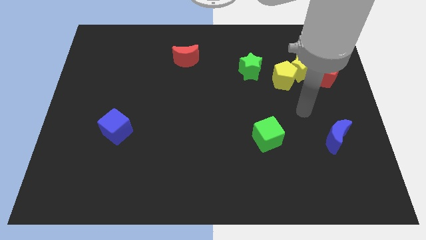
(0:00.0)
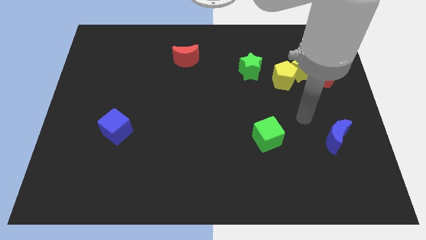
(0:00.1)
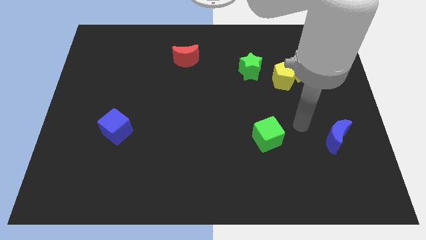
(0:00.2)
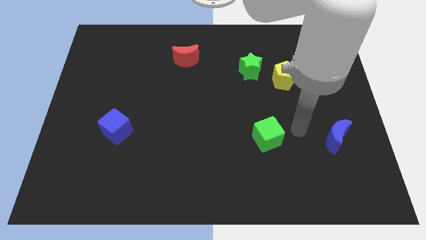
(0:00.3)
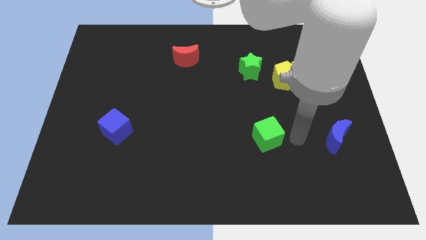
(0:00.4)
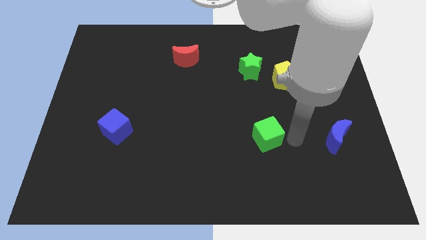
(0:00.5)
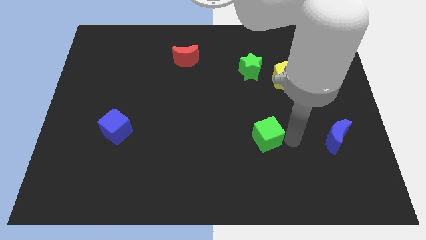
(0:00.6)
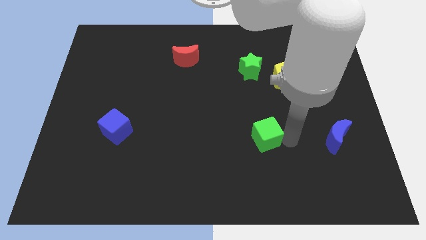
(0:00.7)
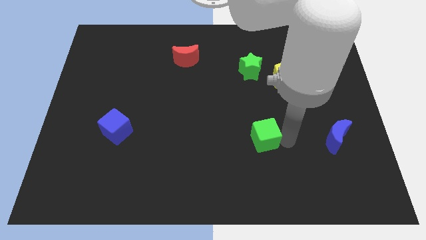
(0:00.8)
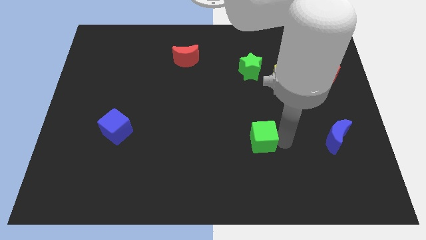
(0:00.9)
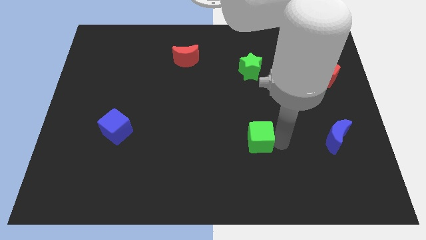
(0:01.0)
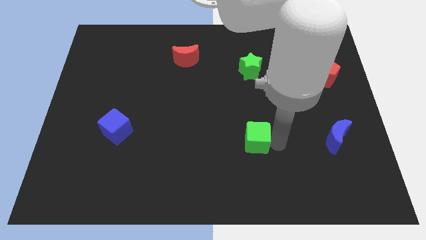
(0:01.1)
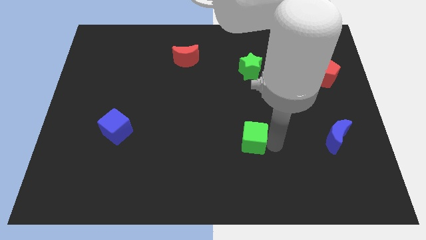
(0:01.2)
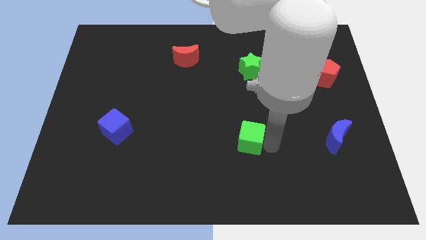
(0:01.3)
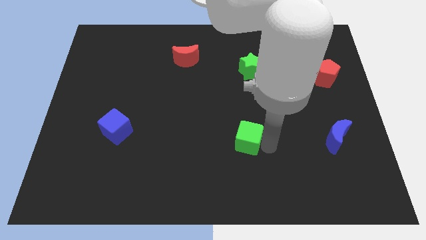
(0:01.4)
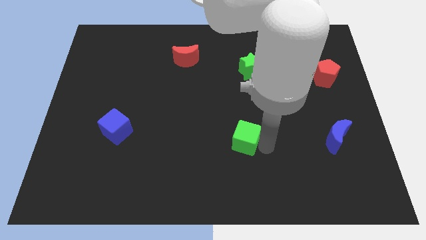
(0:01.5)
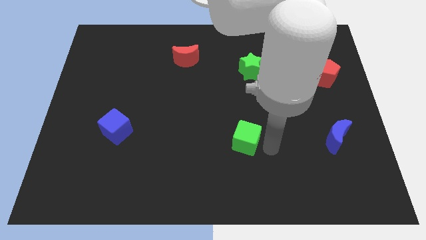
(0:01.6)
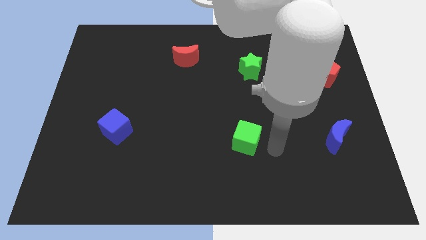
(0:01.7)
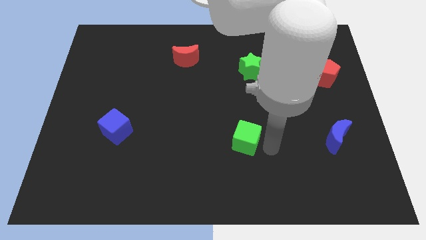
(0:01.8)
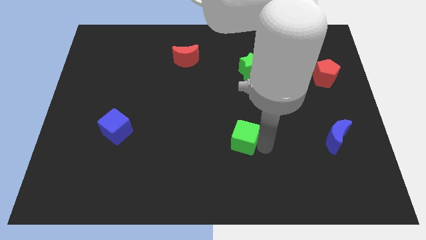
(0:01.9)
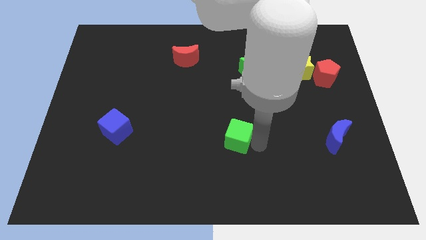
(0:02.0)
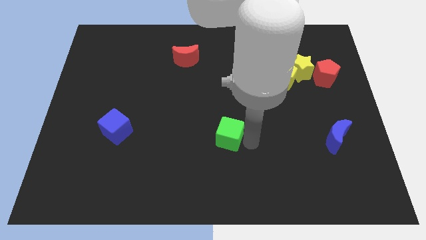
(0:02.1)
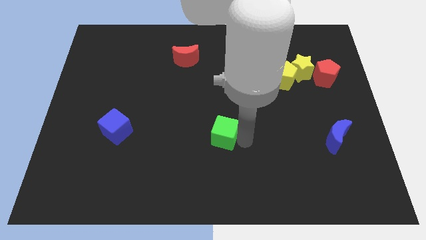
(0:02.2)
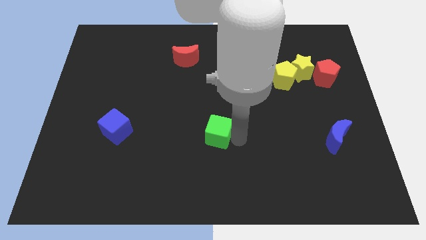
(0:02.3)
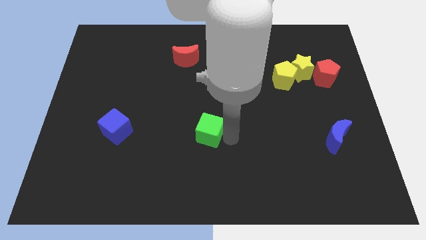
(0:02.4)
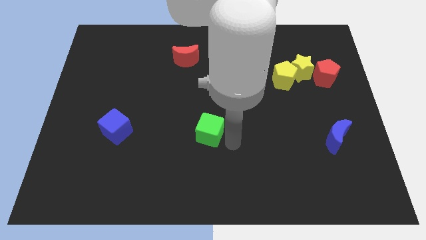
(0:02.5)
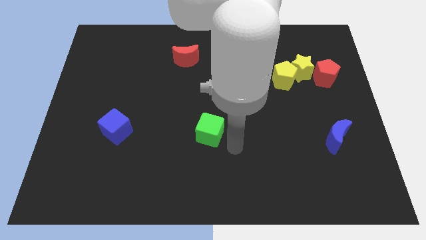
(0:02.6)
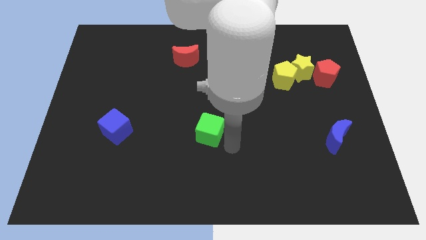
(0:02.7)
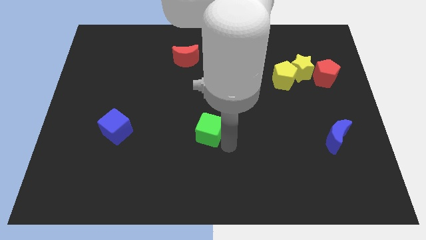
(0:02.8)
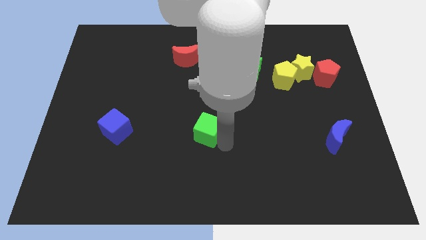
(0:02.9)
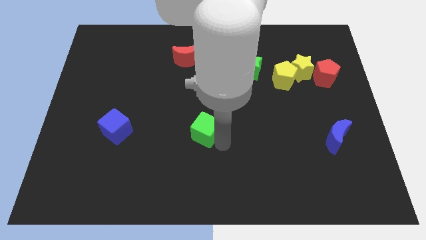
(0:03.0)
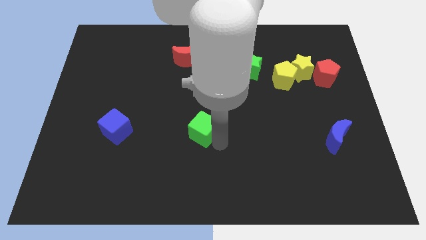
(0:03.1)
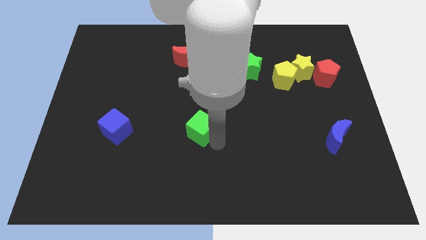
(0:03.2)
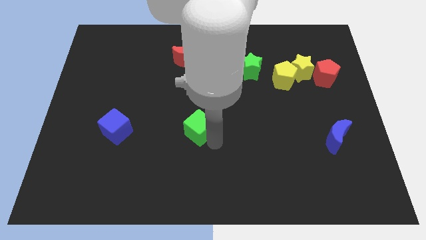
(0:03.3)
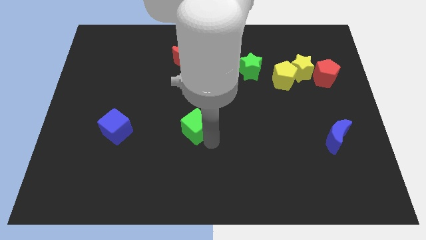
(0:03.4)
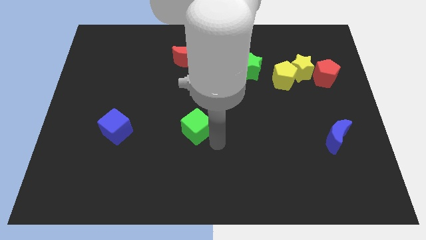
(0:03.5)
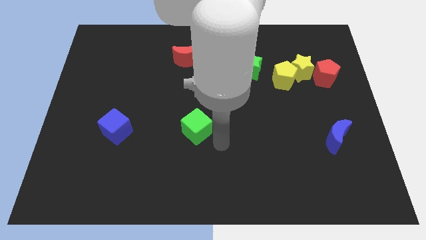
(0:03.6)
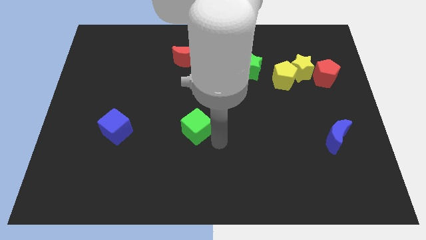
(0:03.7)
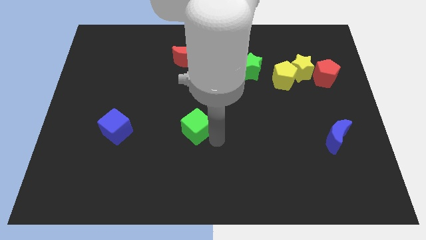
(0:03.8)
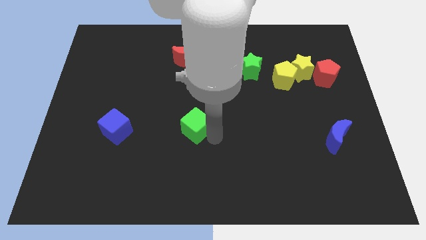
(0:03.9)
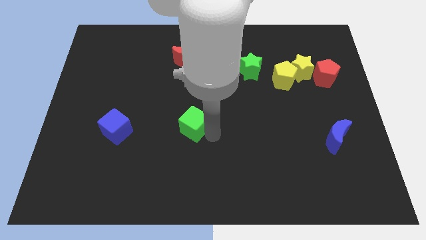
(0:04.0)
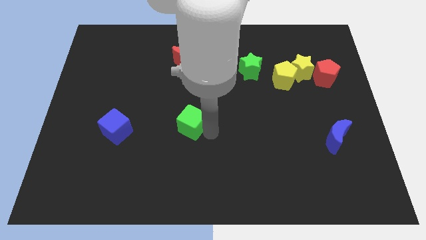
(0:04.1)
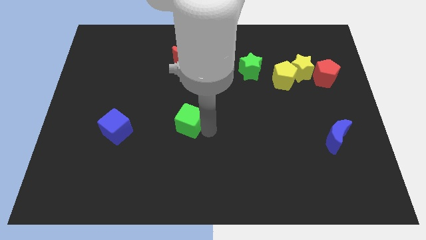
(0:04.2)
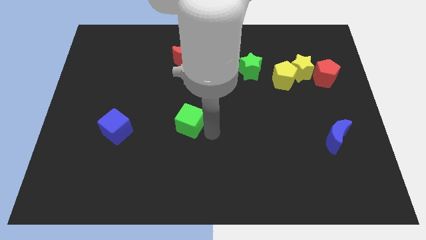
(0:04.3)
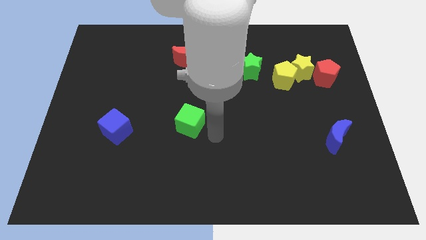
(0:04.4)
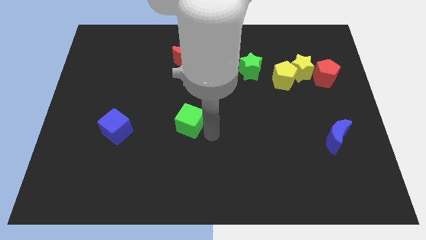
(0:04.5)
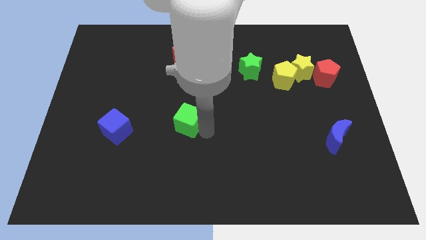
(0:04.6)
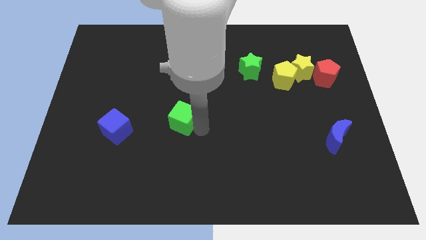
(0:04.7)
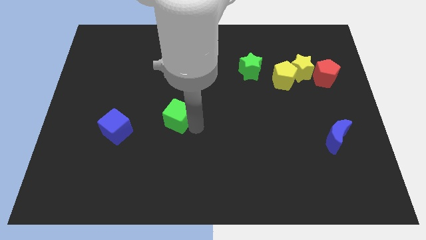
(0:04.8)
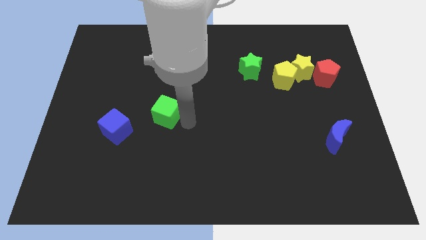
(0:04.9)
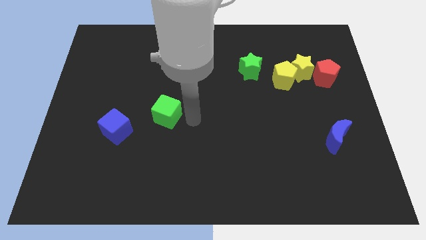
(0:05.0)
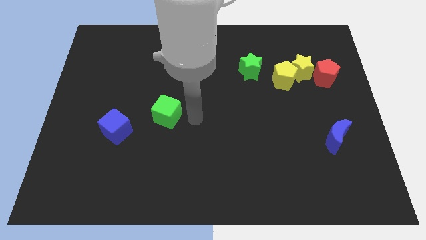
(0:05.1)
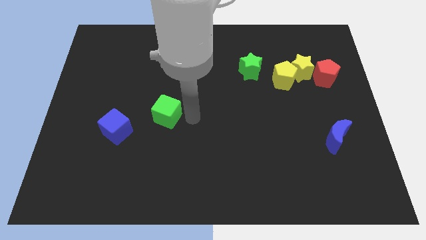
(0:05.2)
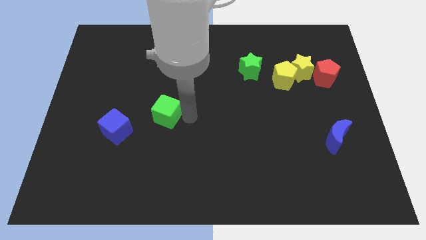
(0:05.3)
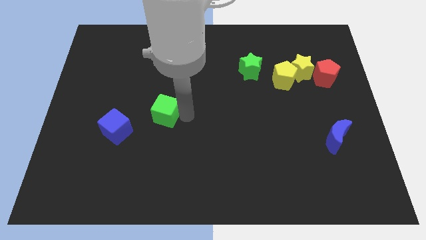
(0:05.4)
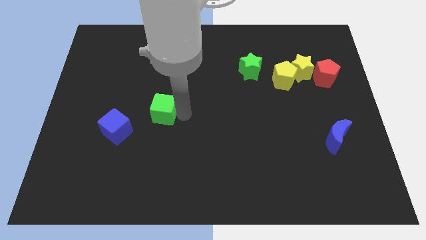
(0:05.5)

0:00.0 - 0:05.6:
push the green cube to the top right of the blue cube

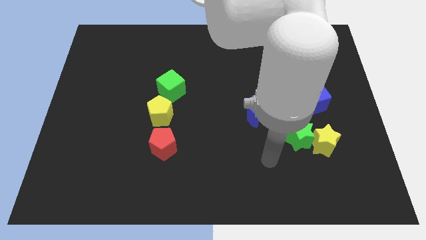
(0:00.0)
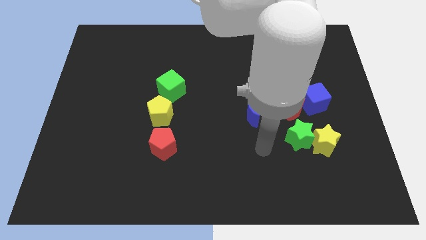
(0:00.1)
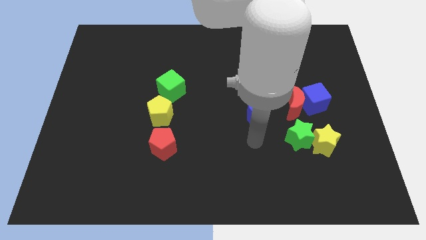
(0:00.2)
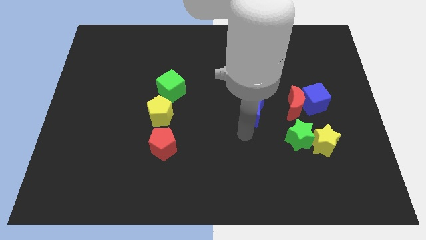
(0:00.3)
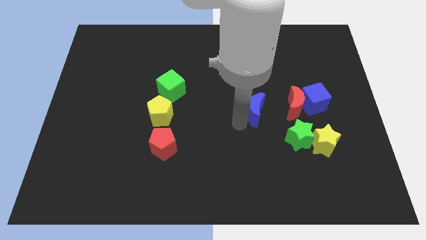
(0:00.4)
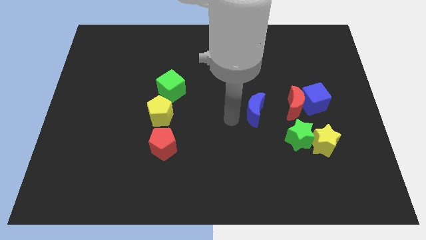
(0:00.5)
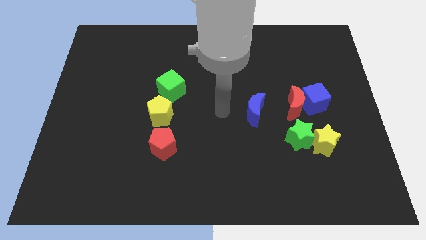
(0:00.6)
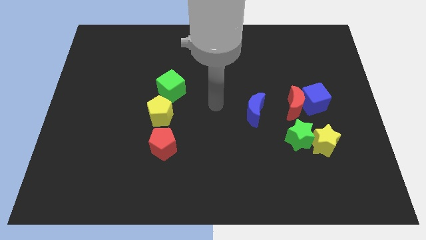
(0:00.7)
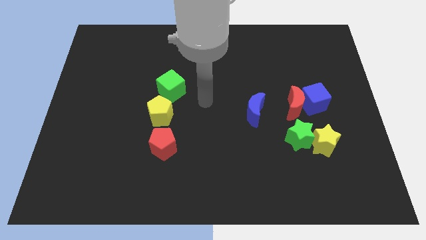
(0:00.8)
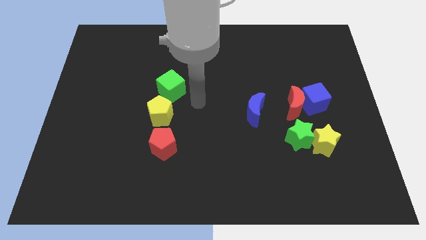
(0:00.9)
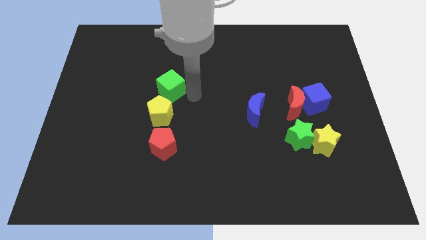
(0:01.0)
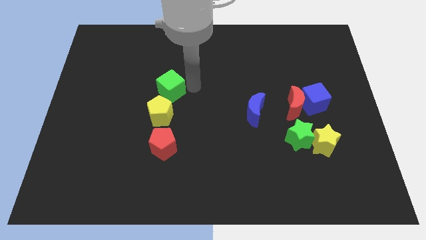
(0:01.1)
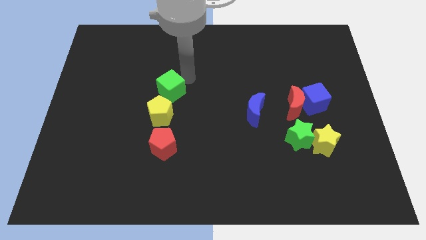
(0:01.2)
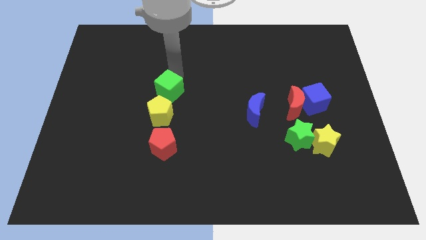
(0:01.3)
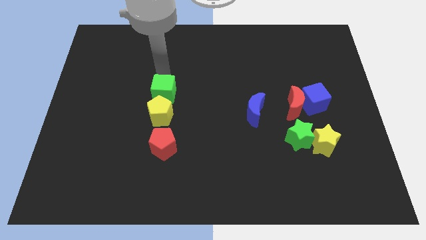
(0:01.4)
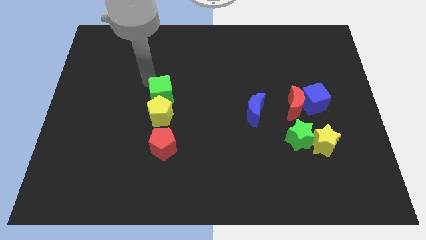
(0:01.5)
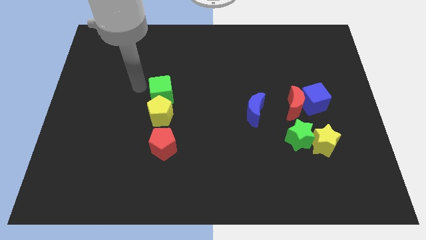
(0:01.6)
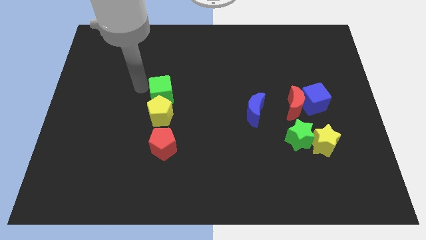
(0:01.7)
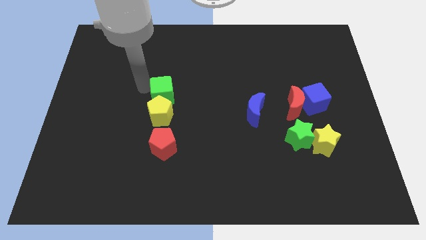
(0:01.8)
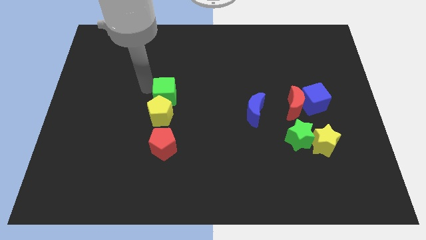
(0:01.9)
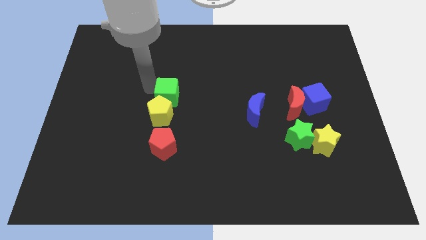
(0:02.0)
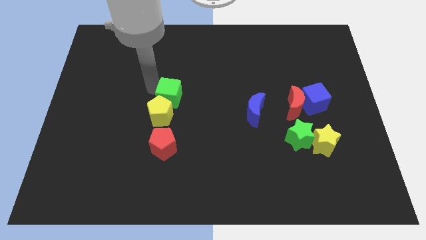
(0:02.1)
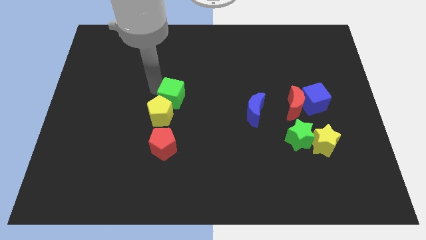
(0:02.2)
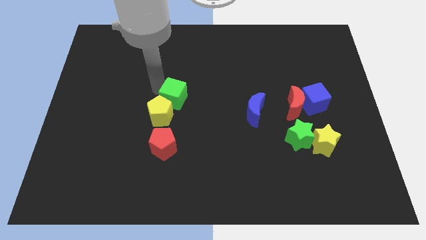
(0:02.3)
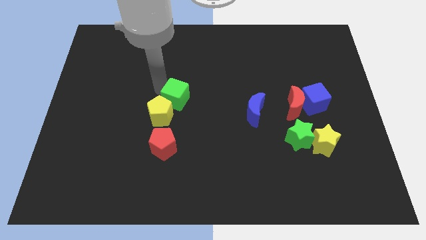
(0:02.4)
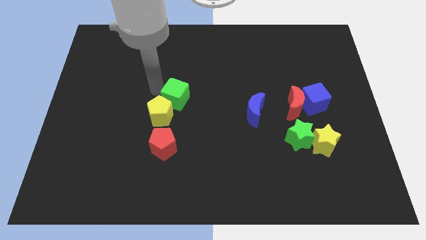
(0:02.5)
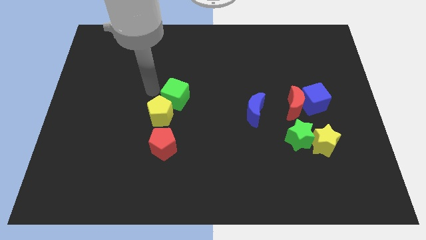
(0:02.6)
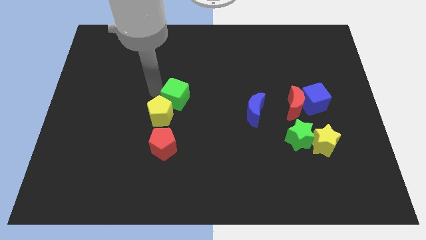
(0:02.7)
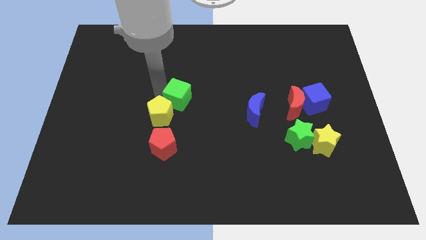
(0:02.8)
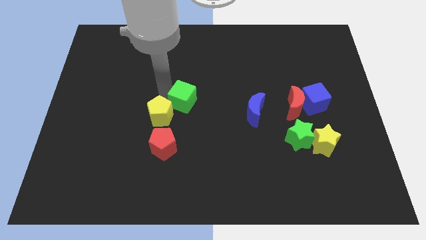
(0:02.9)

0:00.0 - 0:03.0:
push the green cube to the right of the yellow pentagon
